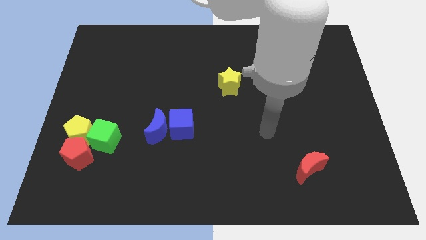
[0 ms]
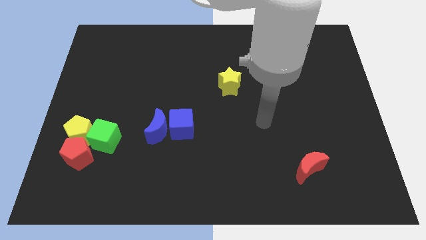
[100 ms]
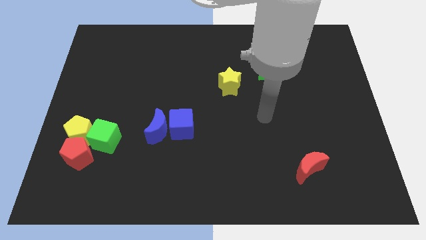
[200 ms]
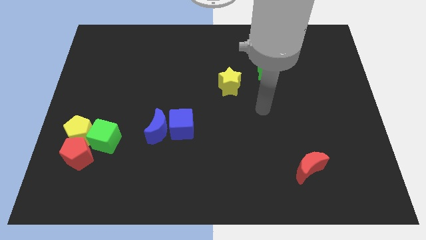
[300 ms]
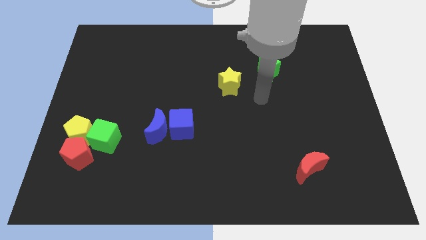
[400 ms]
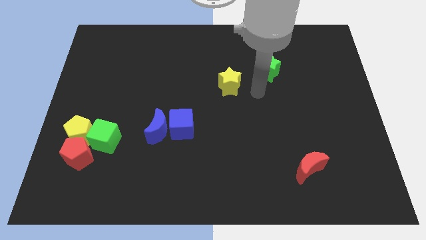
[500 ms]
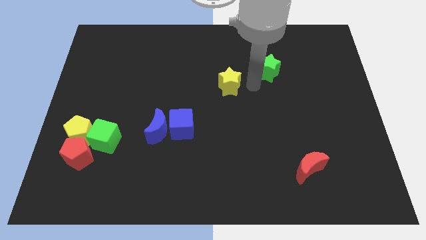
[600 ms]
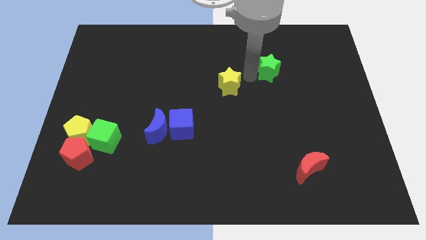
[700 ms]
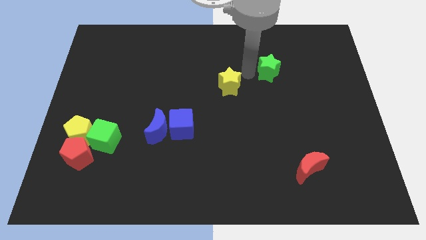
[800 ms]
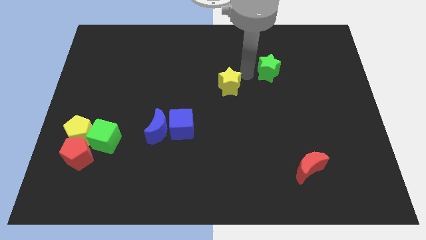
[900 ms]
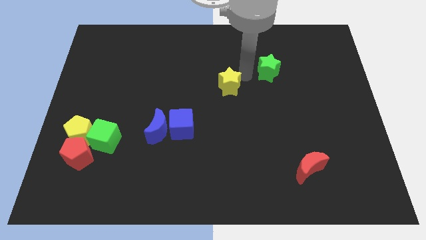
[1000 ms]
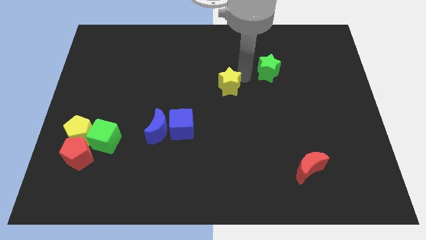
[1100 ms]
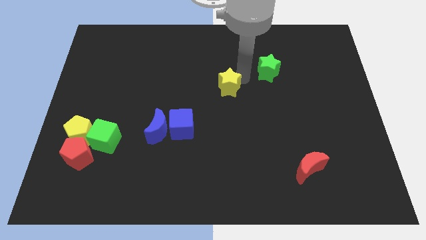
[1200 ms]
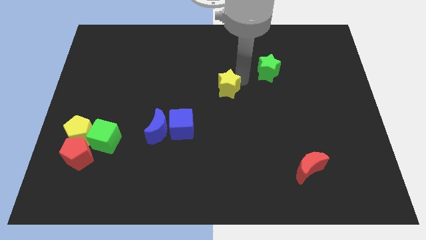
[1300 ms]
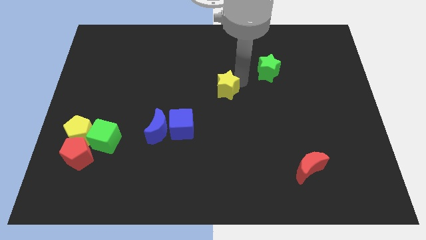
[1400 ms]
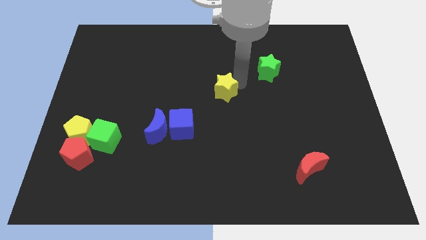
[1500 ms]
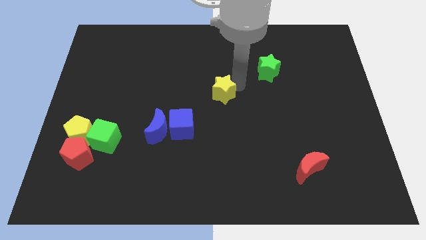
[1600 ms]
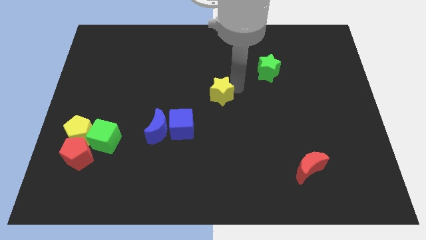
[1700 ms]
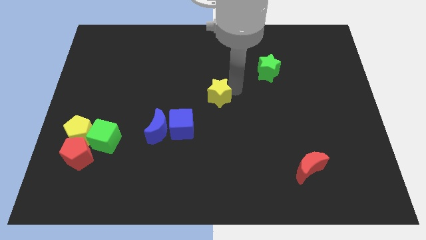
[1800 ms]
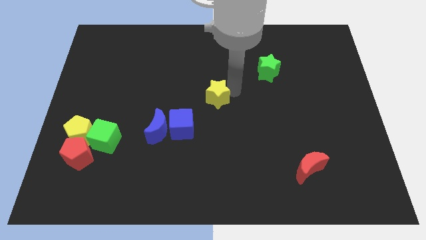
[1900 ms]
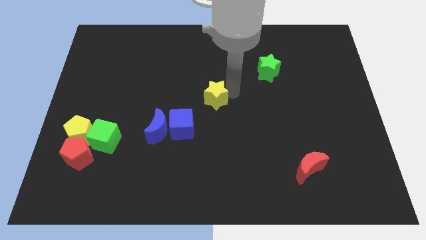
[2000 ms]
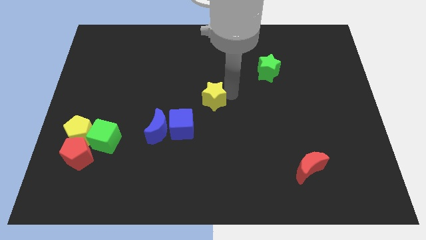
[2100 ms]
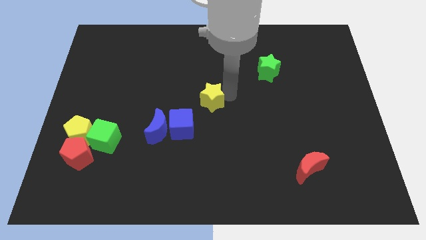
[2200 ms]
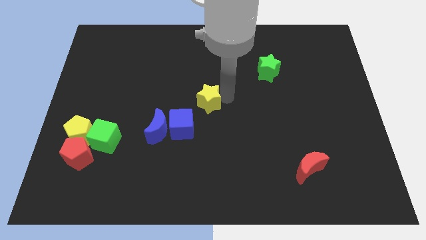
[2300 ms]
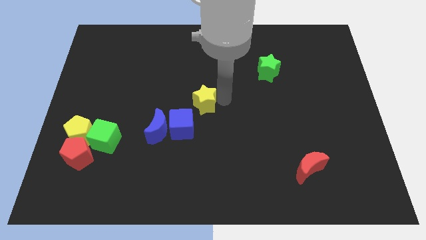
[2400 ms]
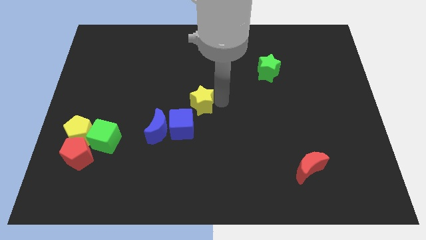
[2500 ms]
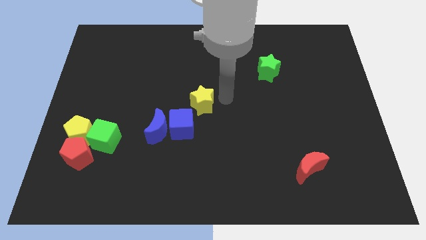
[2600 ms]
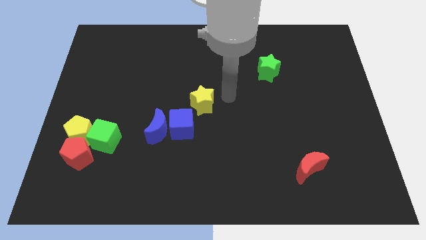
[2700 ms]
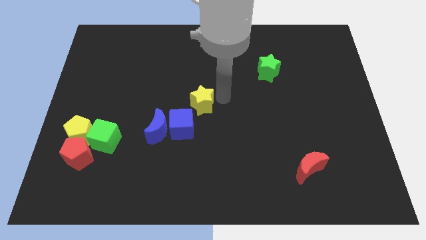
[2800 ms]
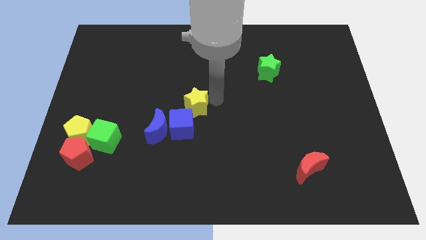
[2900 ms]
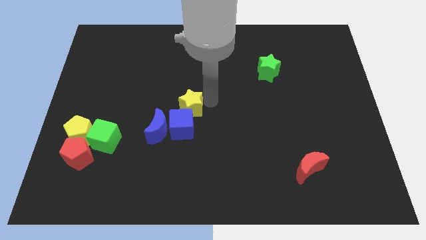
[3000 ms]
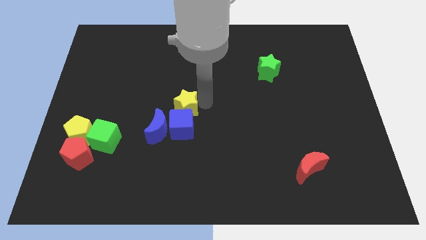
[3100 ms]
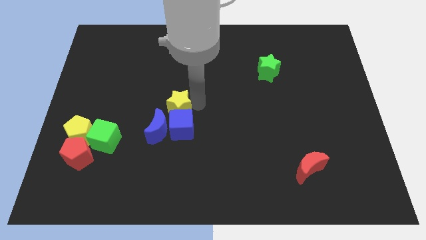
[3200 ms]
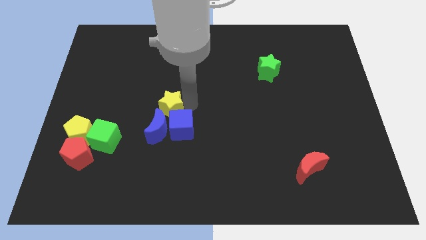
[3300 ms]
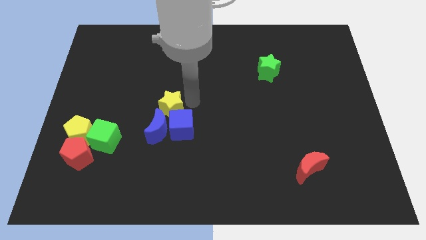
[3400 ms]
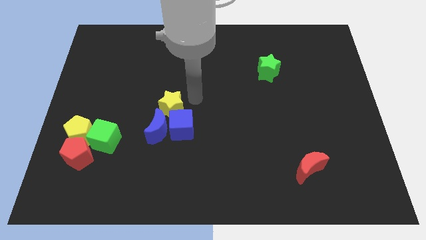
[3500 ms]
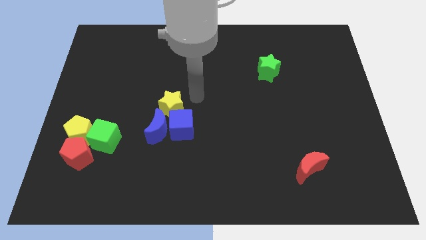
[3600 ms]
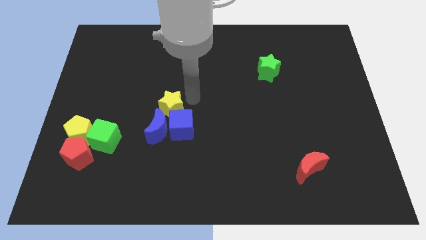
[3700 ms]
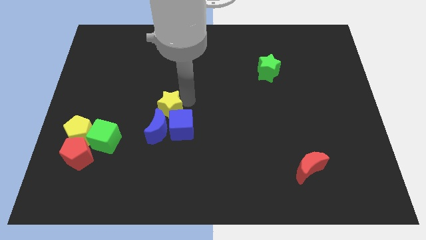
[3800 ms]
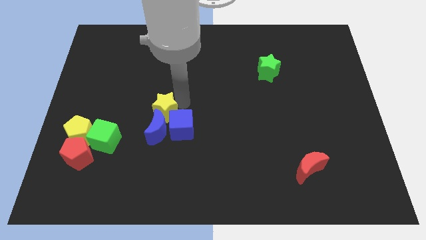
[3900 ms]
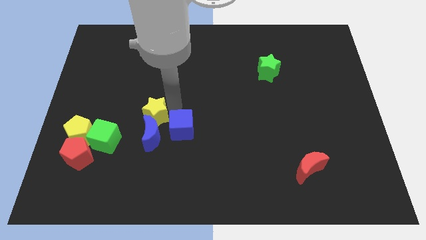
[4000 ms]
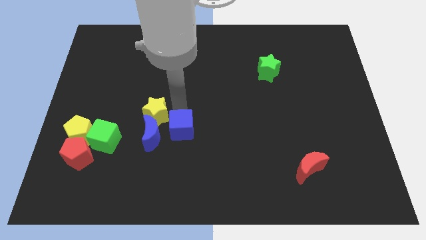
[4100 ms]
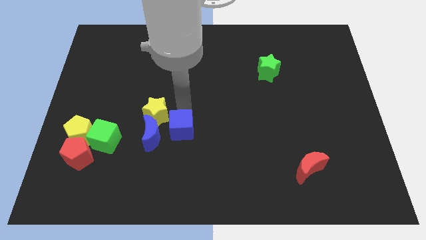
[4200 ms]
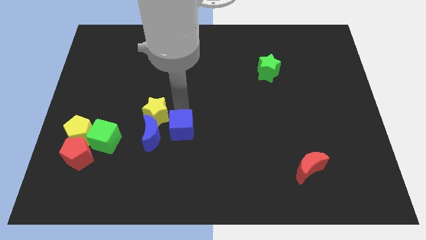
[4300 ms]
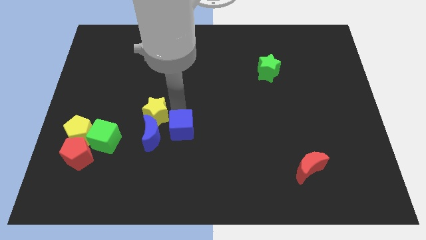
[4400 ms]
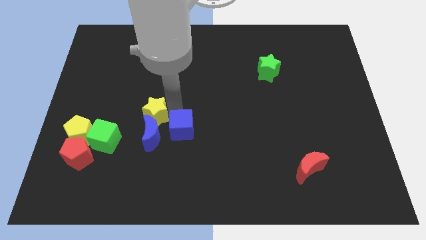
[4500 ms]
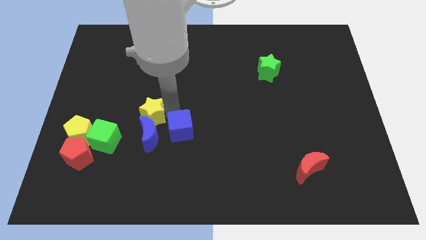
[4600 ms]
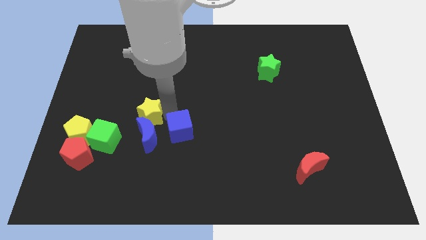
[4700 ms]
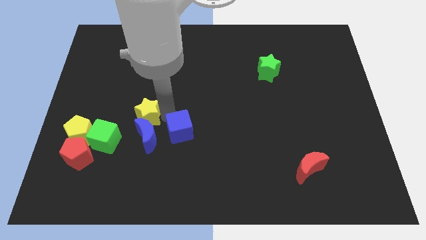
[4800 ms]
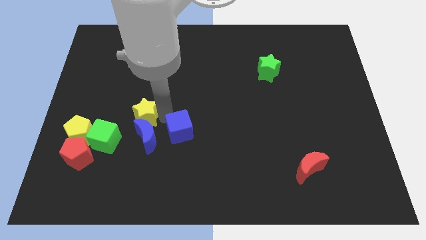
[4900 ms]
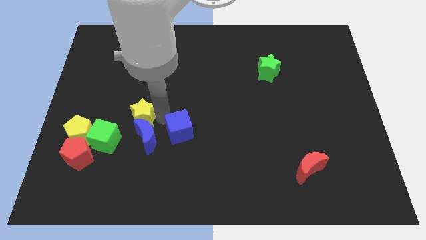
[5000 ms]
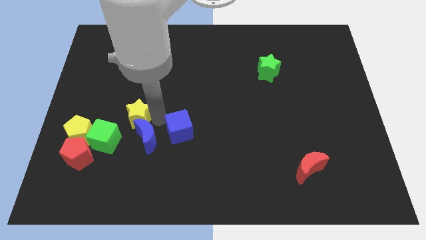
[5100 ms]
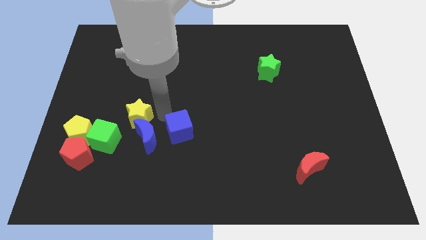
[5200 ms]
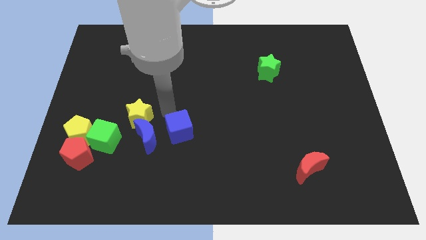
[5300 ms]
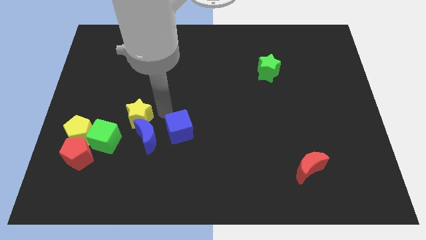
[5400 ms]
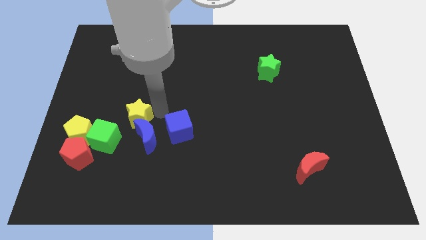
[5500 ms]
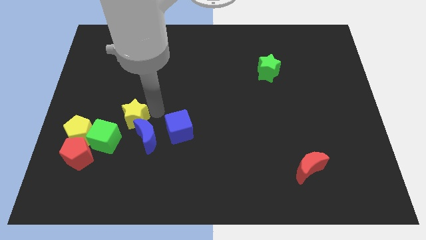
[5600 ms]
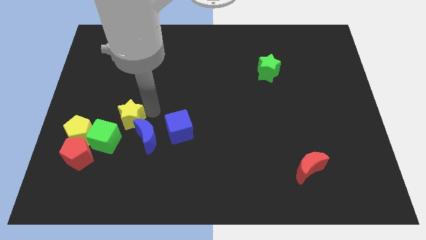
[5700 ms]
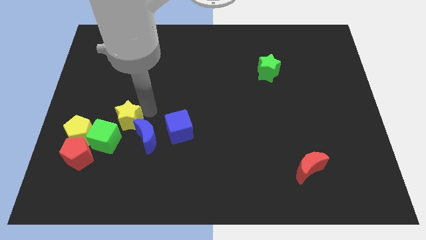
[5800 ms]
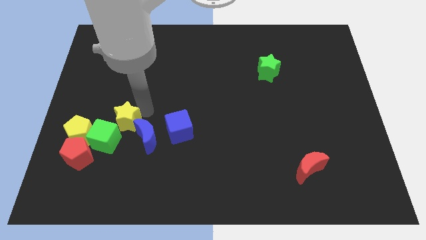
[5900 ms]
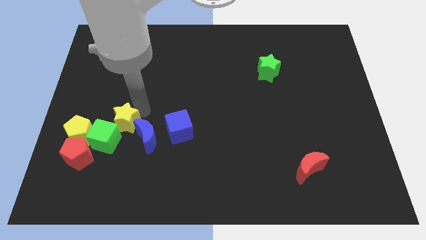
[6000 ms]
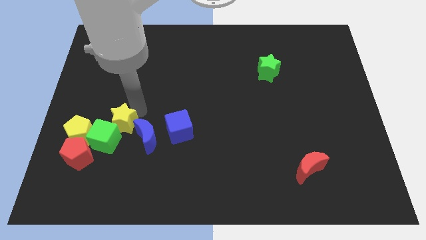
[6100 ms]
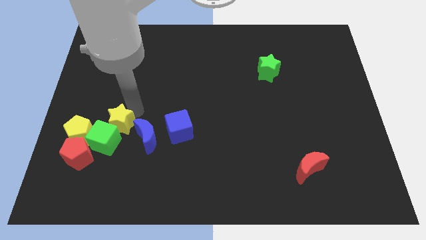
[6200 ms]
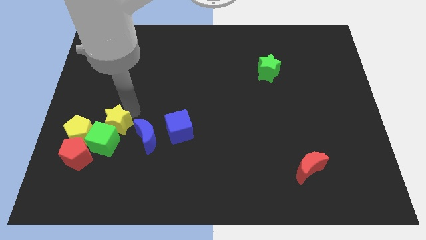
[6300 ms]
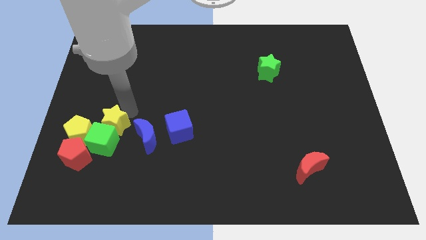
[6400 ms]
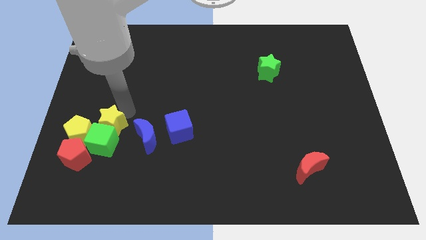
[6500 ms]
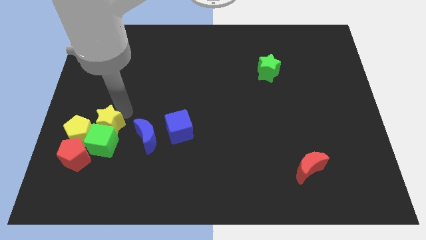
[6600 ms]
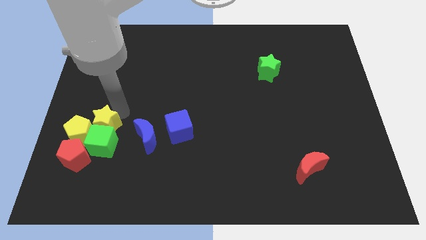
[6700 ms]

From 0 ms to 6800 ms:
move the yellow star towards the yellow pentagon

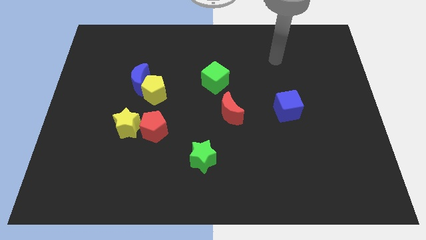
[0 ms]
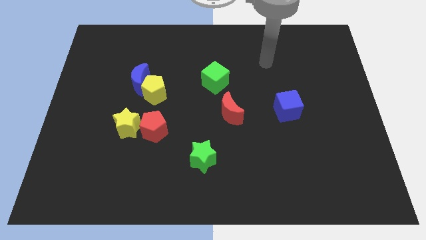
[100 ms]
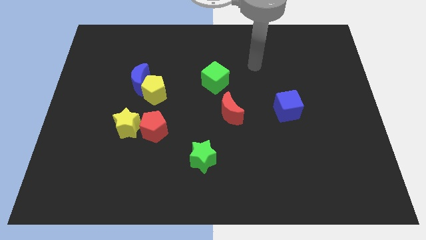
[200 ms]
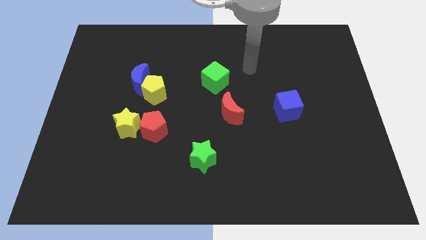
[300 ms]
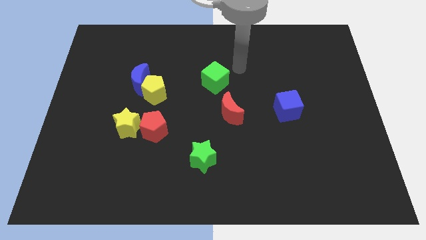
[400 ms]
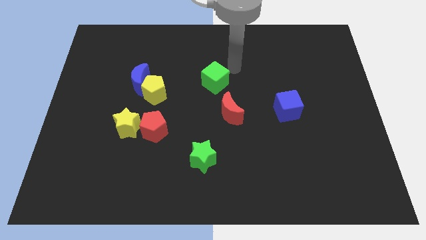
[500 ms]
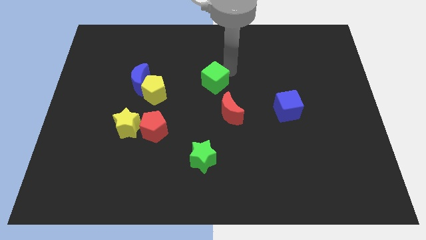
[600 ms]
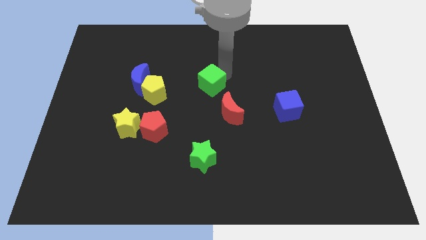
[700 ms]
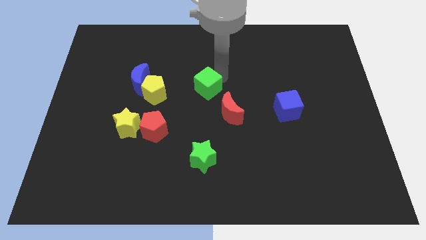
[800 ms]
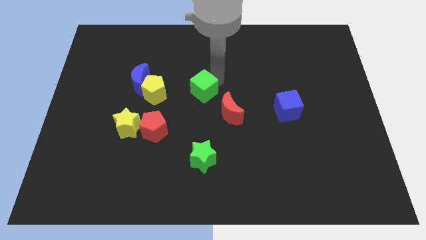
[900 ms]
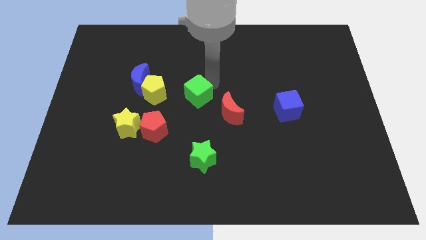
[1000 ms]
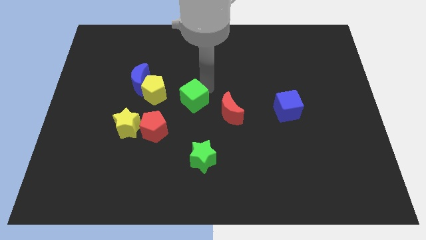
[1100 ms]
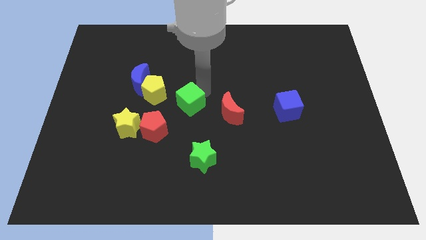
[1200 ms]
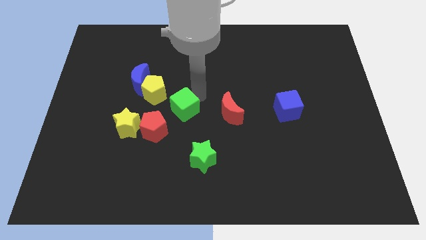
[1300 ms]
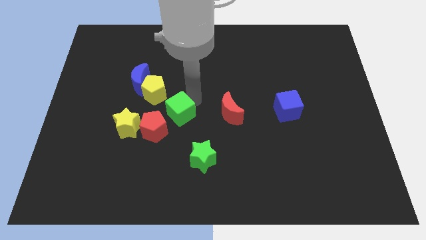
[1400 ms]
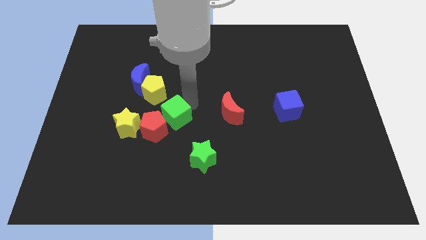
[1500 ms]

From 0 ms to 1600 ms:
push the green cube close to the red pentagon
